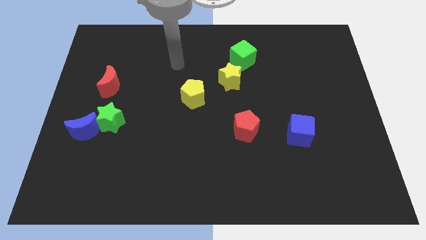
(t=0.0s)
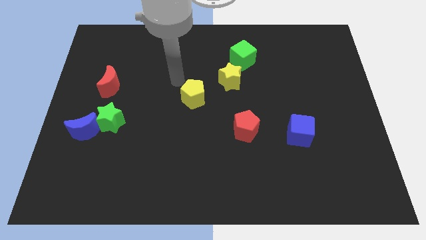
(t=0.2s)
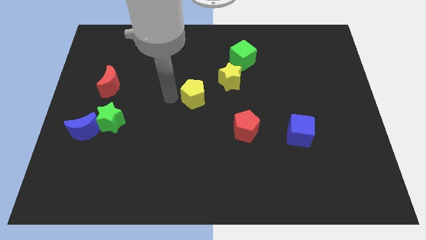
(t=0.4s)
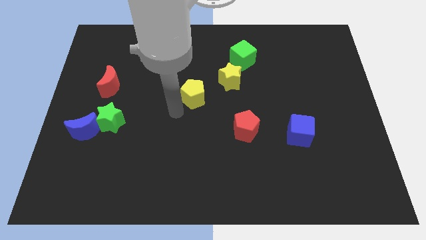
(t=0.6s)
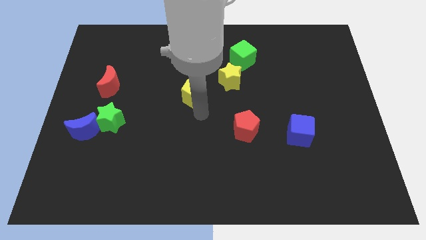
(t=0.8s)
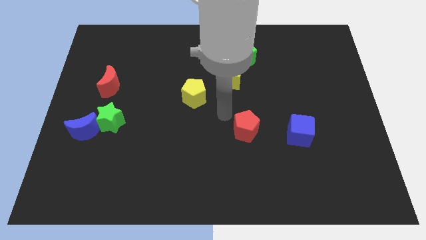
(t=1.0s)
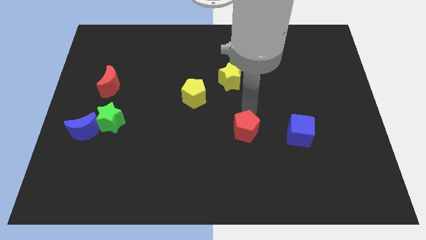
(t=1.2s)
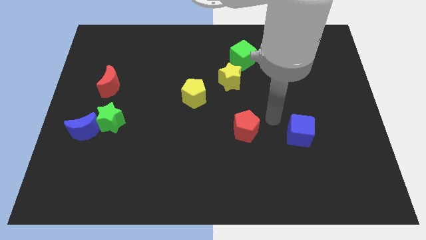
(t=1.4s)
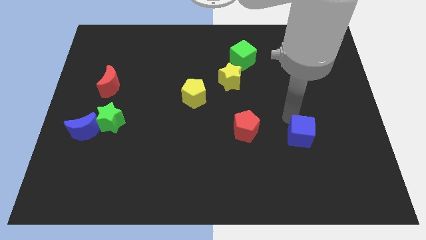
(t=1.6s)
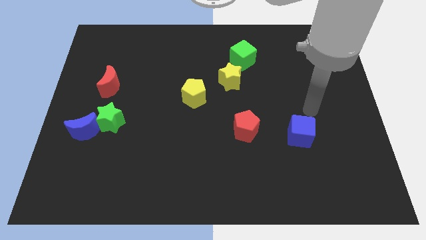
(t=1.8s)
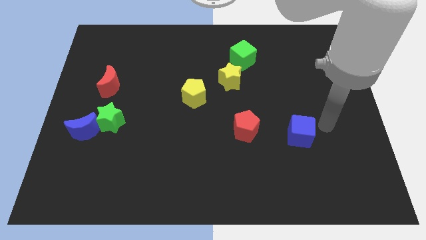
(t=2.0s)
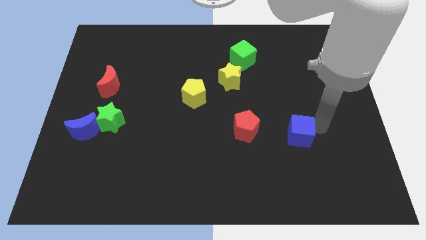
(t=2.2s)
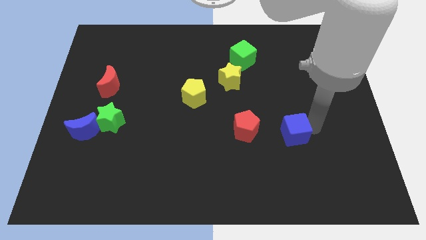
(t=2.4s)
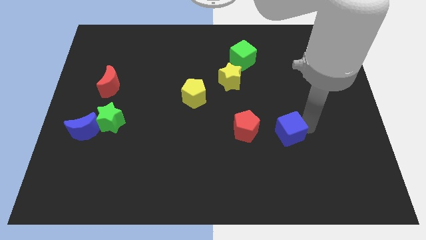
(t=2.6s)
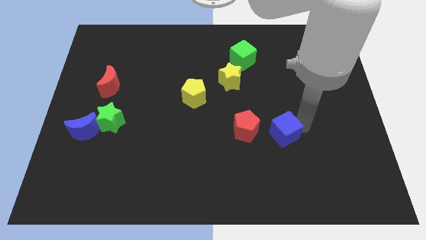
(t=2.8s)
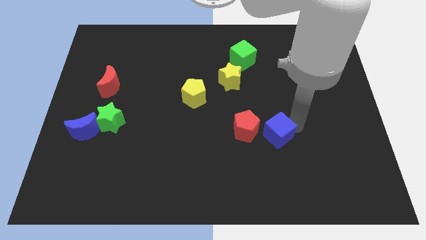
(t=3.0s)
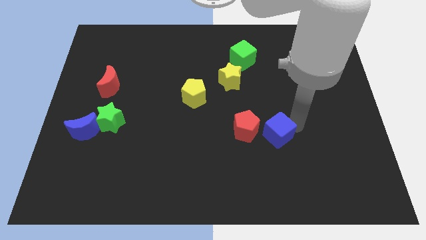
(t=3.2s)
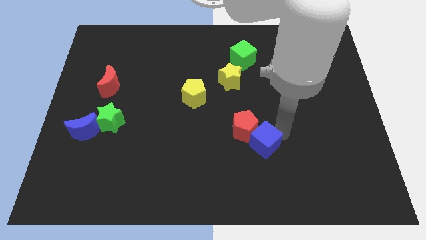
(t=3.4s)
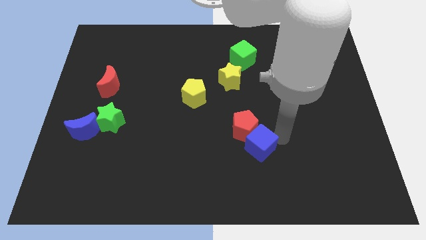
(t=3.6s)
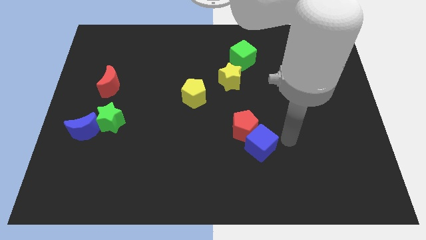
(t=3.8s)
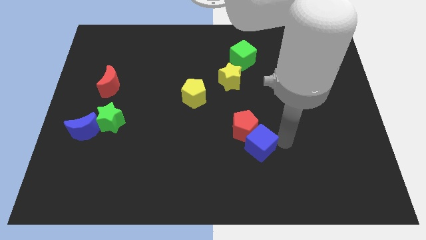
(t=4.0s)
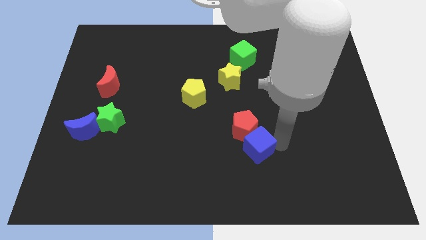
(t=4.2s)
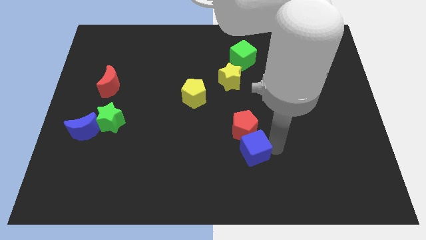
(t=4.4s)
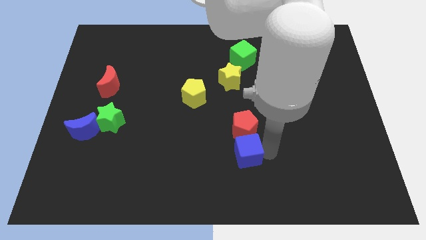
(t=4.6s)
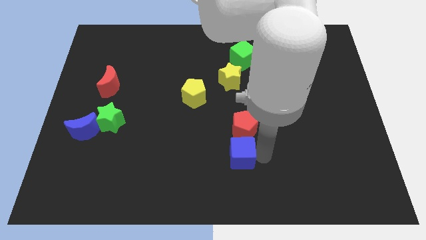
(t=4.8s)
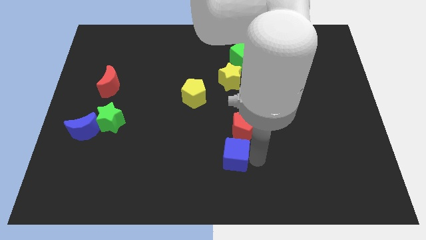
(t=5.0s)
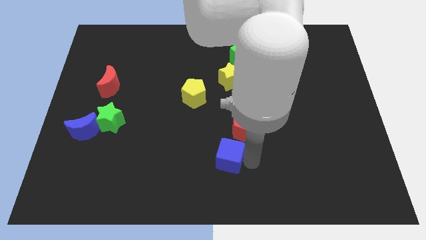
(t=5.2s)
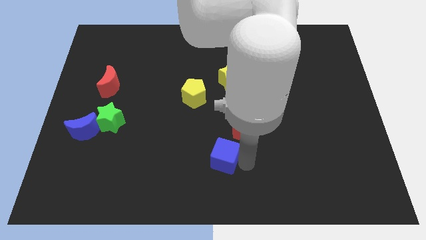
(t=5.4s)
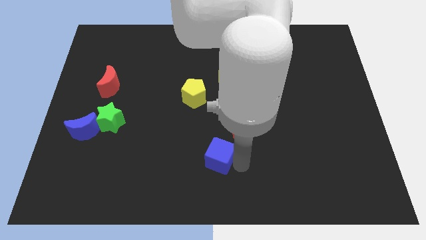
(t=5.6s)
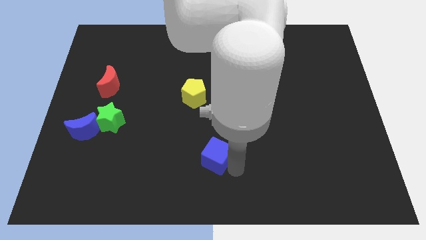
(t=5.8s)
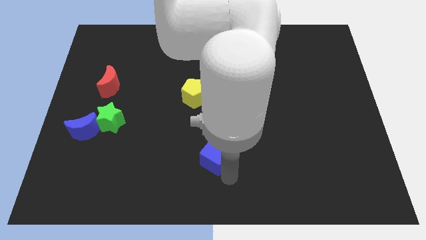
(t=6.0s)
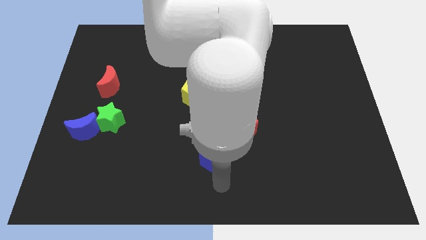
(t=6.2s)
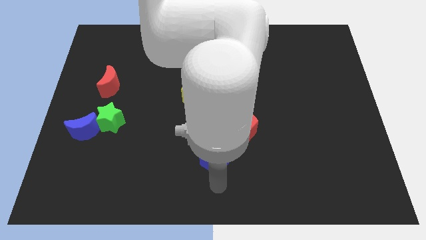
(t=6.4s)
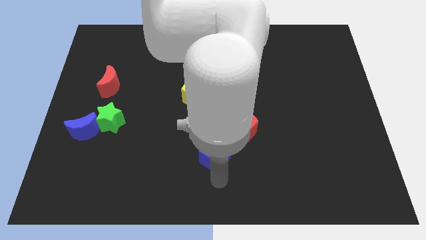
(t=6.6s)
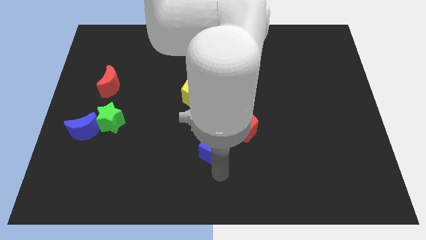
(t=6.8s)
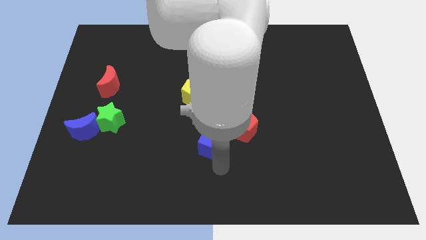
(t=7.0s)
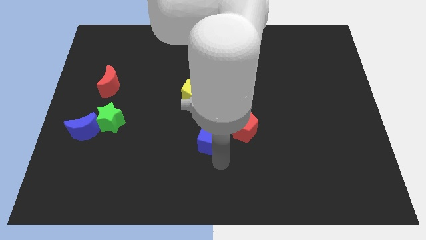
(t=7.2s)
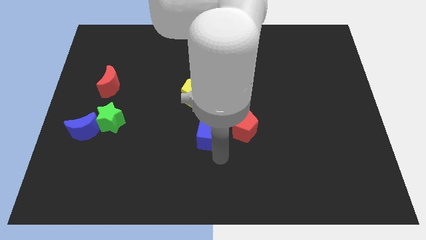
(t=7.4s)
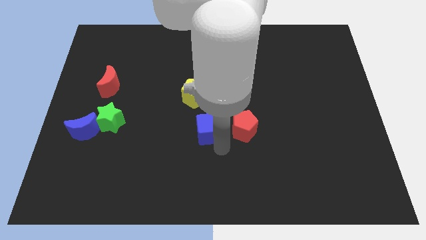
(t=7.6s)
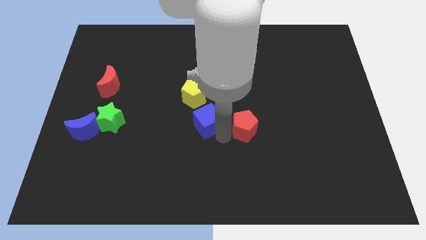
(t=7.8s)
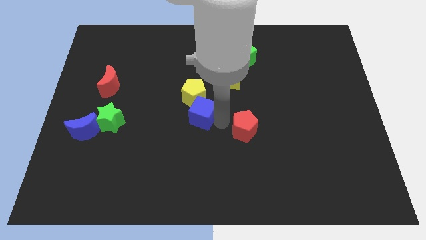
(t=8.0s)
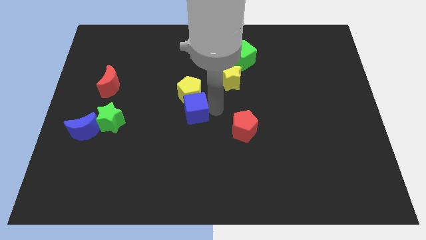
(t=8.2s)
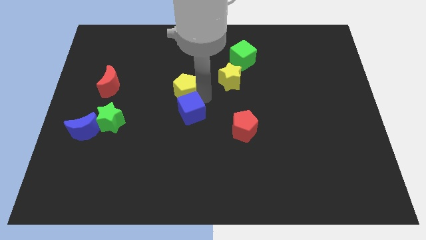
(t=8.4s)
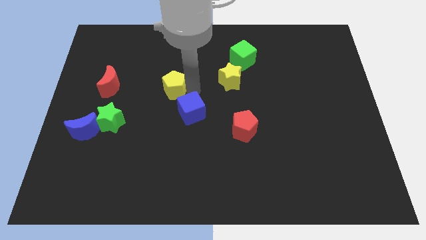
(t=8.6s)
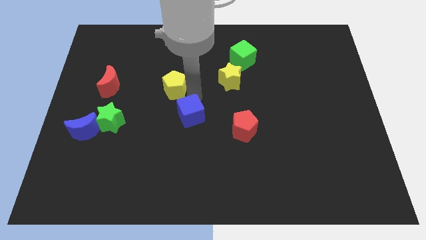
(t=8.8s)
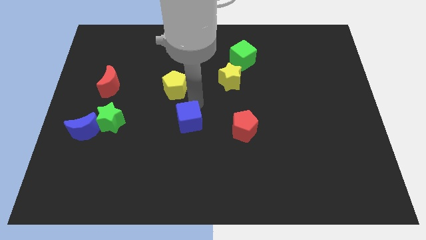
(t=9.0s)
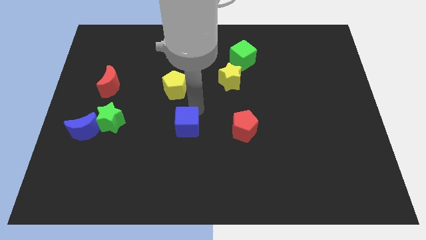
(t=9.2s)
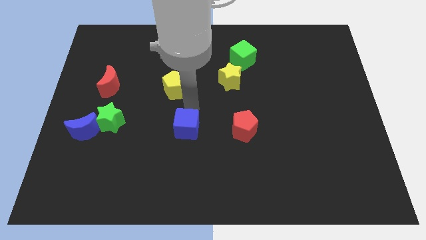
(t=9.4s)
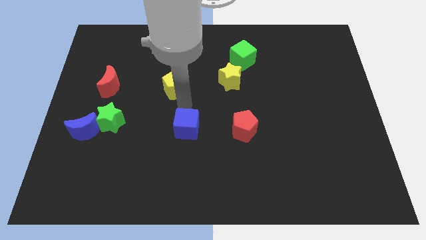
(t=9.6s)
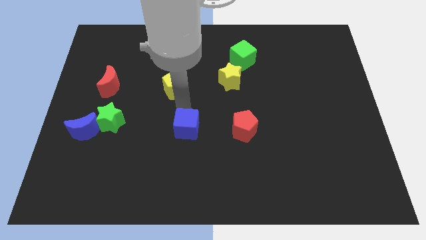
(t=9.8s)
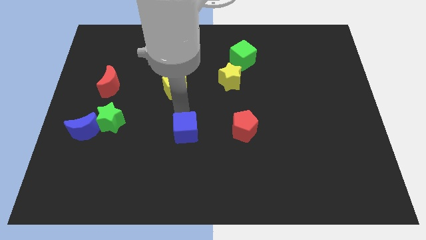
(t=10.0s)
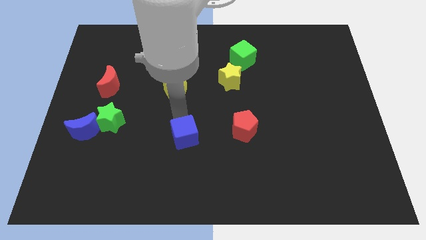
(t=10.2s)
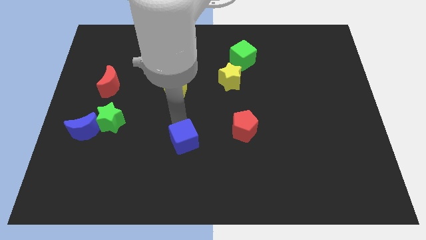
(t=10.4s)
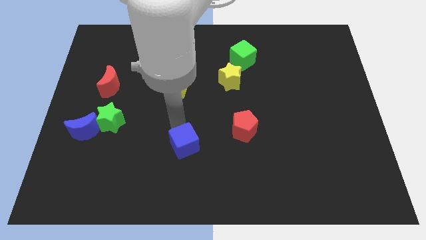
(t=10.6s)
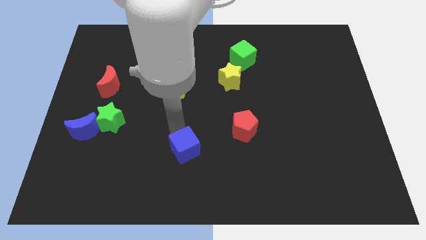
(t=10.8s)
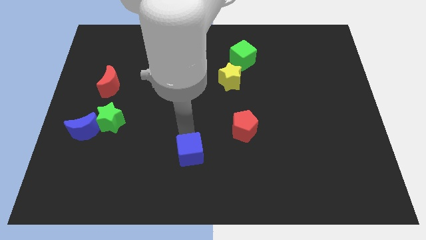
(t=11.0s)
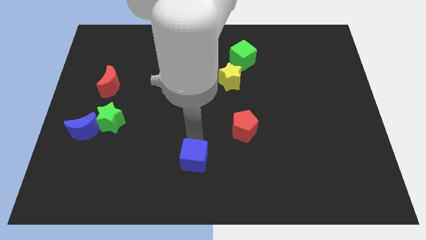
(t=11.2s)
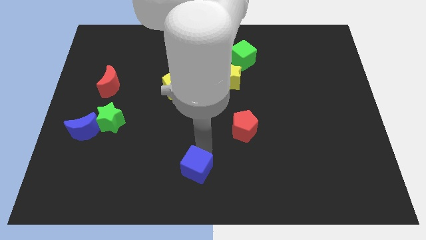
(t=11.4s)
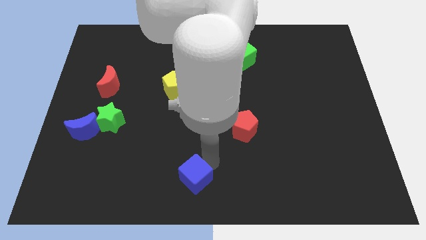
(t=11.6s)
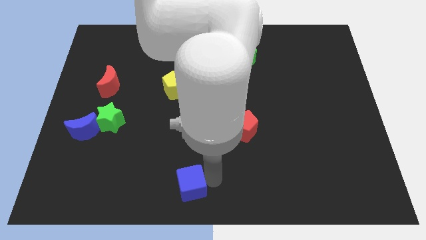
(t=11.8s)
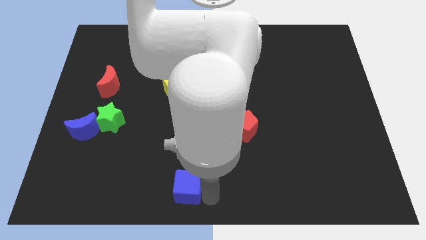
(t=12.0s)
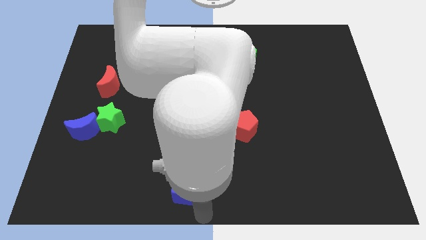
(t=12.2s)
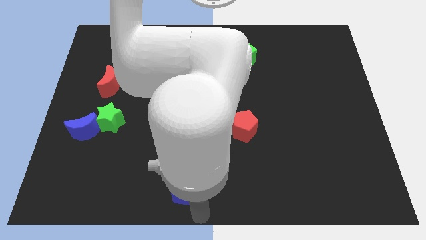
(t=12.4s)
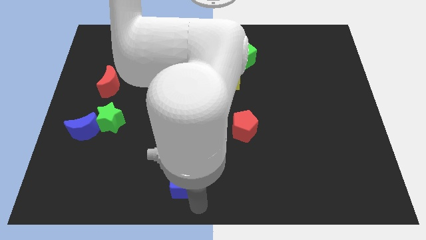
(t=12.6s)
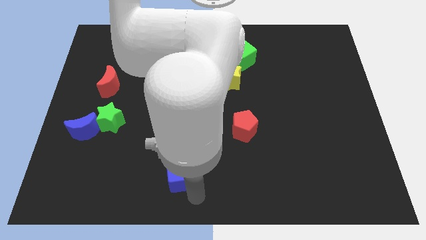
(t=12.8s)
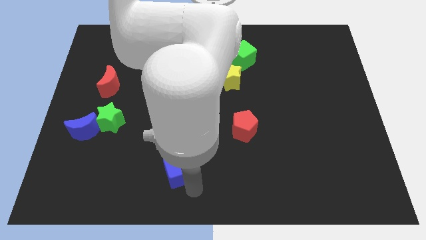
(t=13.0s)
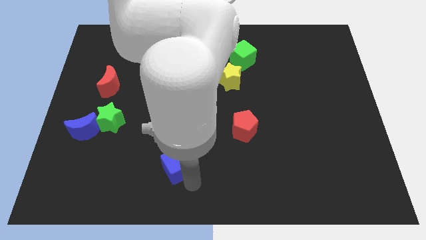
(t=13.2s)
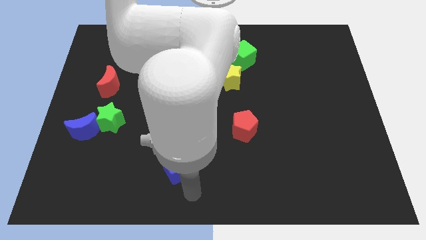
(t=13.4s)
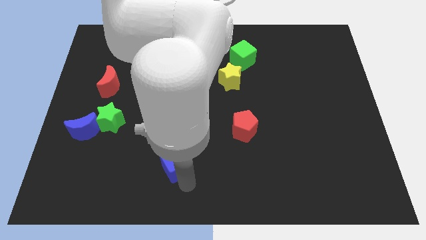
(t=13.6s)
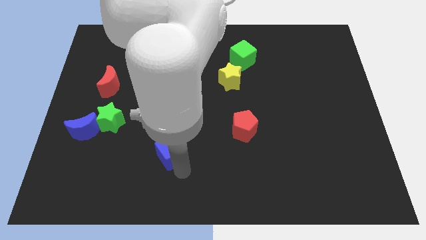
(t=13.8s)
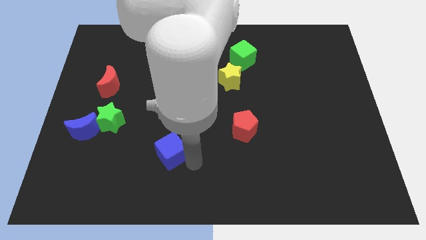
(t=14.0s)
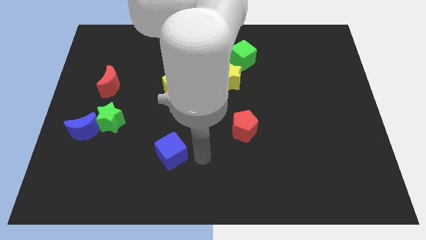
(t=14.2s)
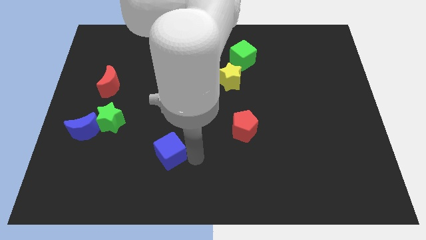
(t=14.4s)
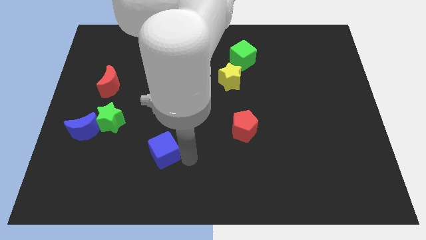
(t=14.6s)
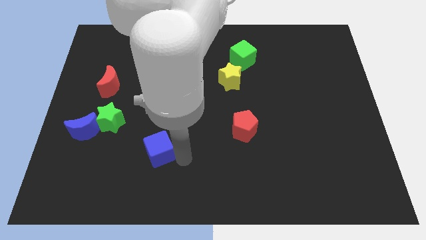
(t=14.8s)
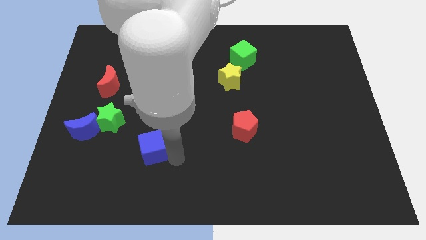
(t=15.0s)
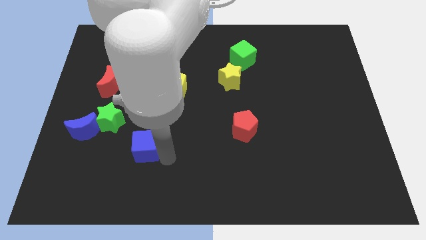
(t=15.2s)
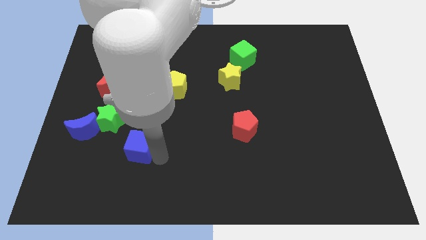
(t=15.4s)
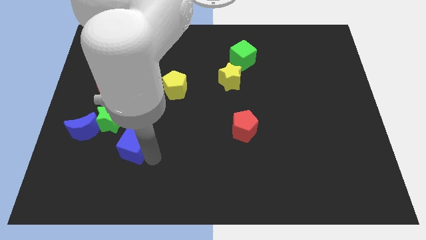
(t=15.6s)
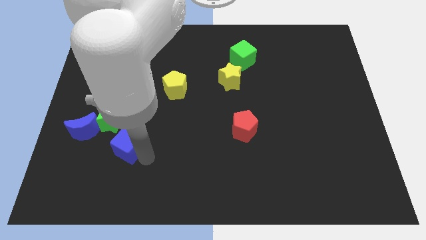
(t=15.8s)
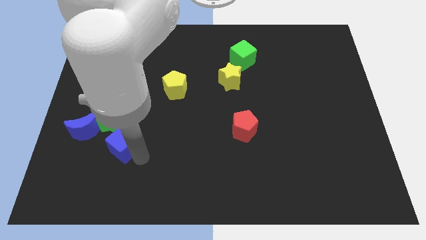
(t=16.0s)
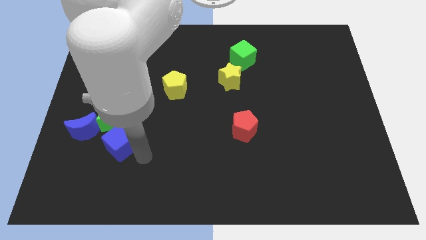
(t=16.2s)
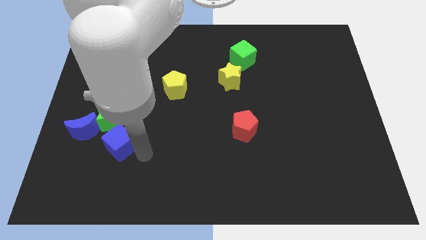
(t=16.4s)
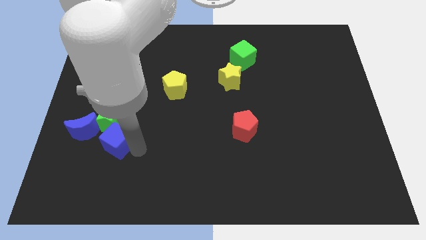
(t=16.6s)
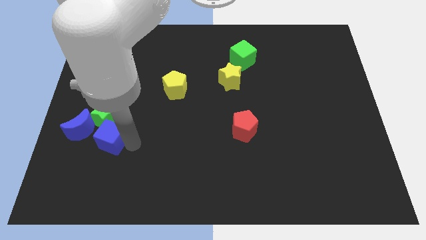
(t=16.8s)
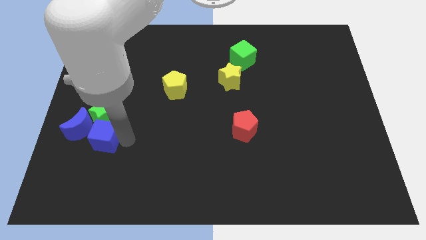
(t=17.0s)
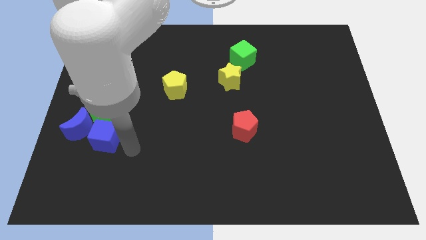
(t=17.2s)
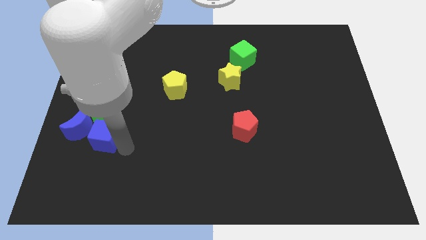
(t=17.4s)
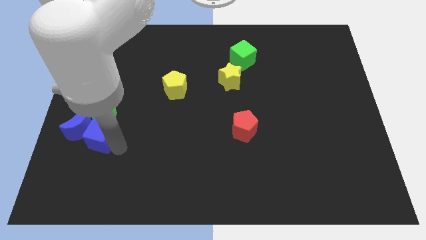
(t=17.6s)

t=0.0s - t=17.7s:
push the blue cube towards the blue moon
